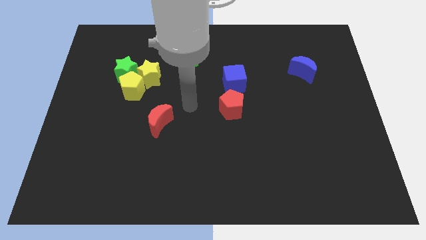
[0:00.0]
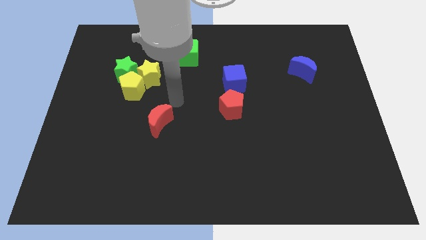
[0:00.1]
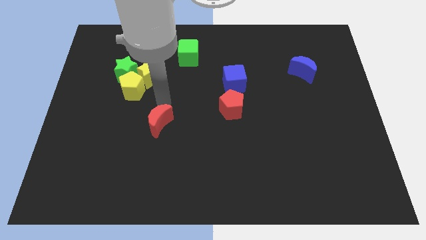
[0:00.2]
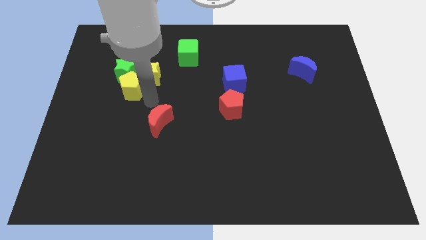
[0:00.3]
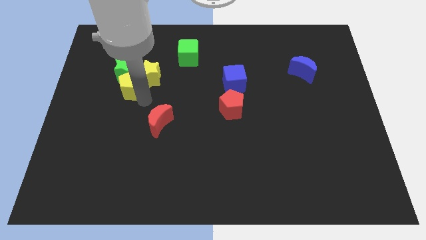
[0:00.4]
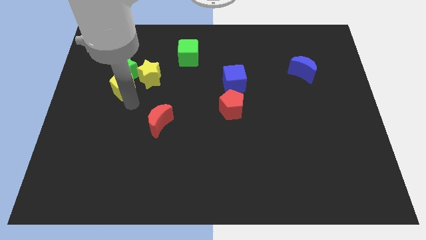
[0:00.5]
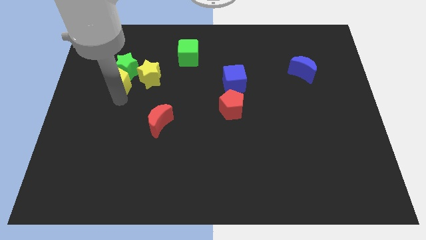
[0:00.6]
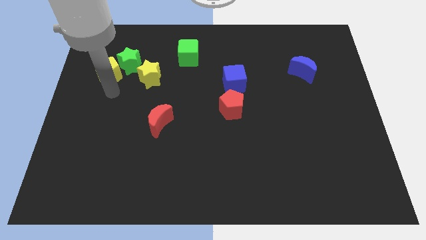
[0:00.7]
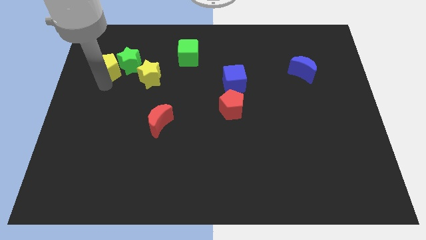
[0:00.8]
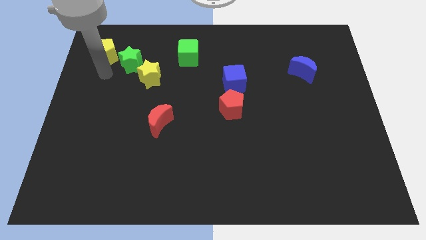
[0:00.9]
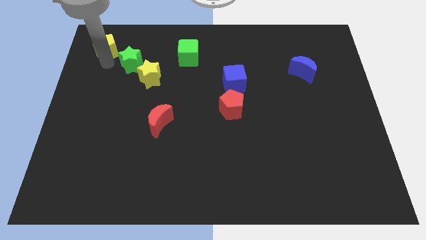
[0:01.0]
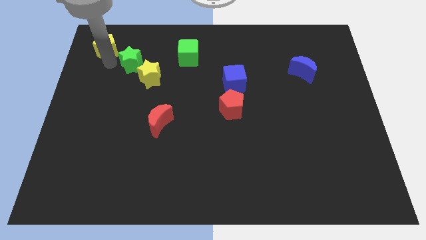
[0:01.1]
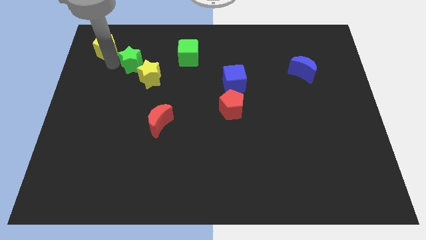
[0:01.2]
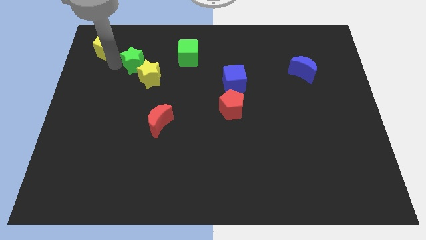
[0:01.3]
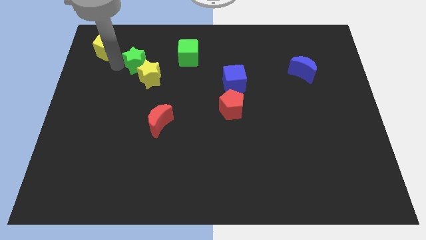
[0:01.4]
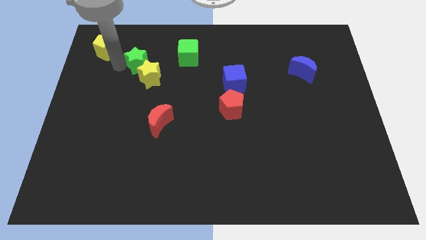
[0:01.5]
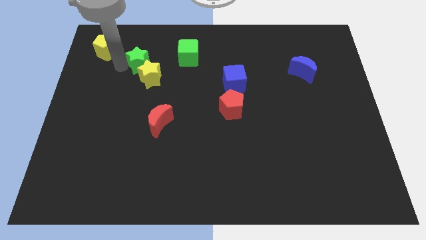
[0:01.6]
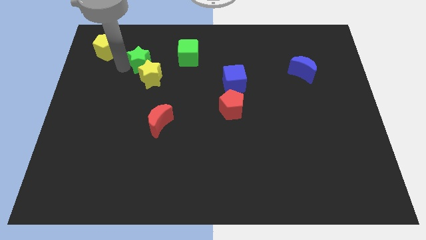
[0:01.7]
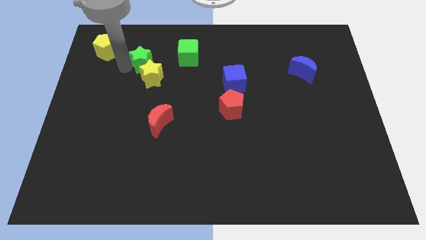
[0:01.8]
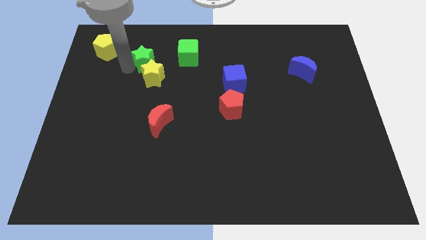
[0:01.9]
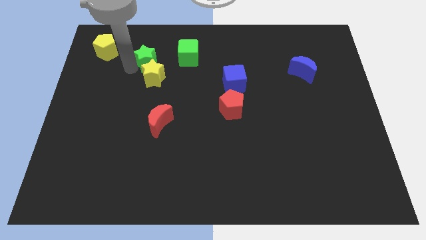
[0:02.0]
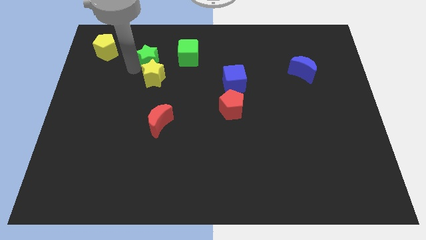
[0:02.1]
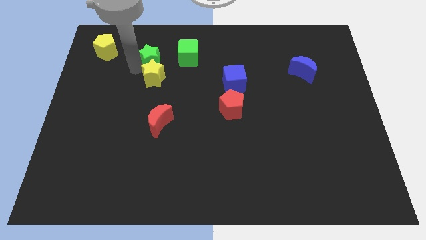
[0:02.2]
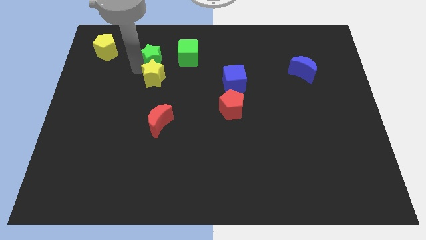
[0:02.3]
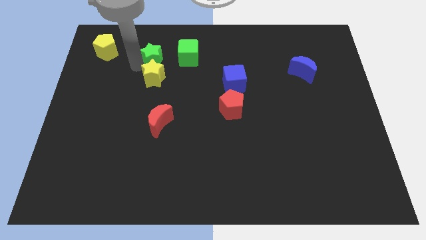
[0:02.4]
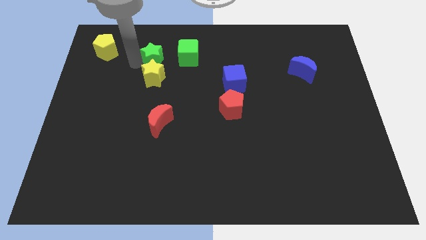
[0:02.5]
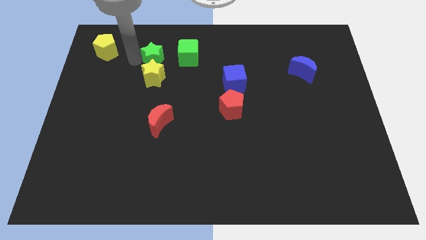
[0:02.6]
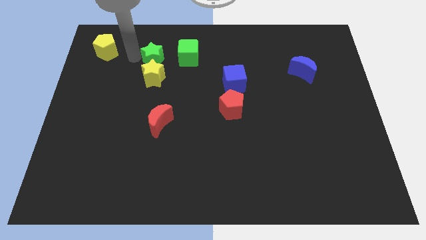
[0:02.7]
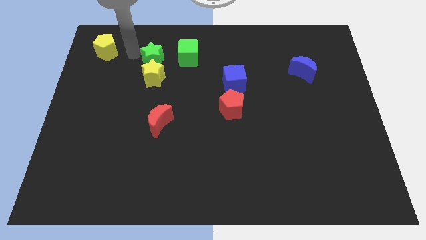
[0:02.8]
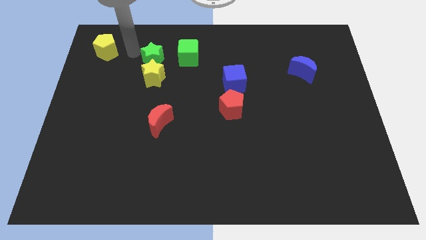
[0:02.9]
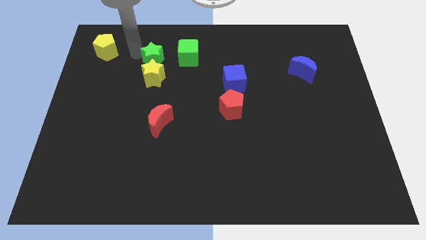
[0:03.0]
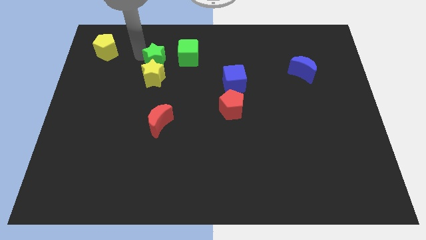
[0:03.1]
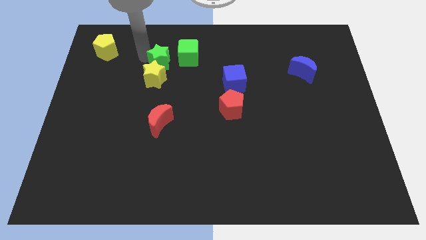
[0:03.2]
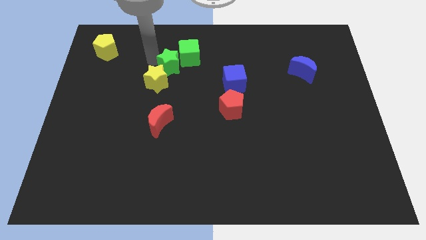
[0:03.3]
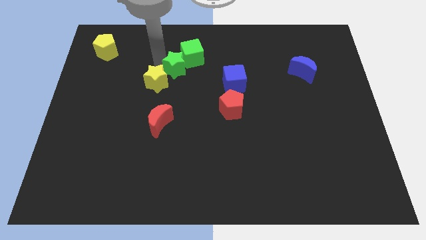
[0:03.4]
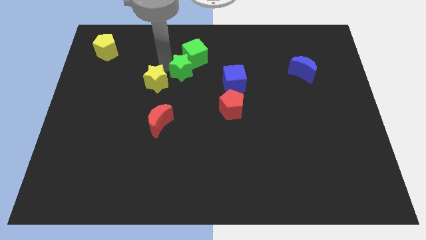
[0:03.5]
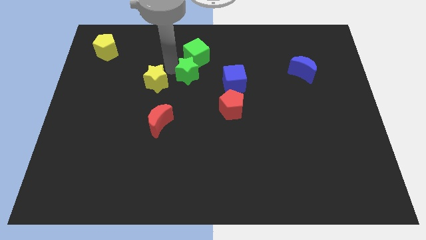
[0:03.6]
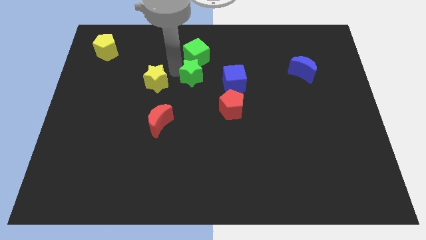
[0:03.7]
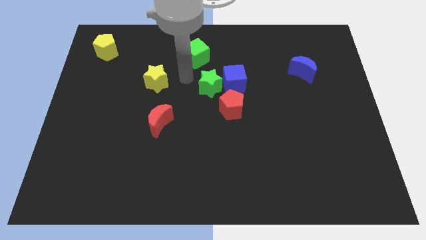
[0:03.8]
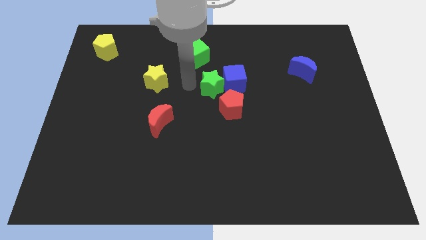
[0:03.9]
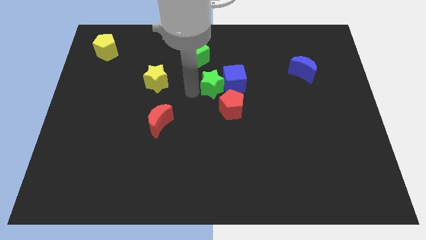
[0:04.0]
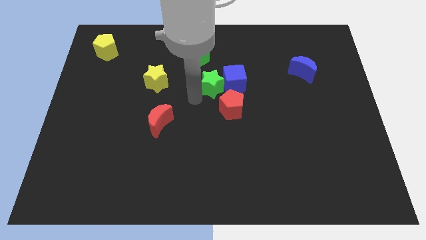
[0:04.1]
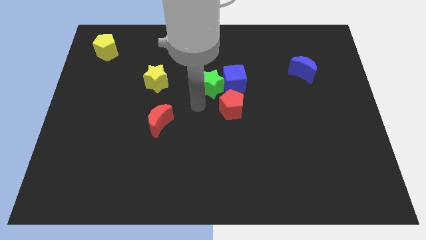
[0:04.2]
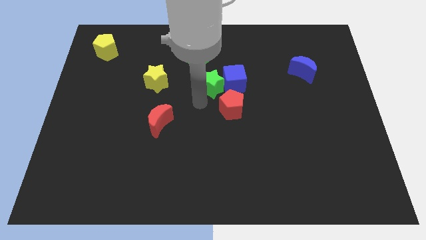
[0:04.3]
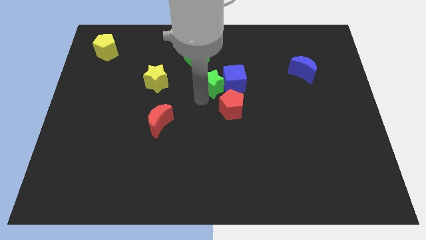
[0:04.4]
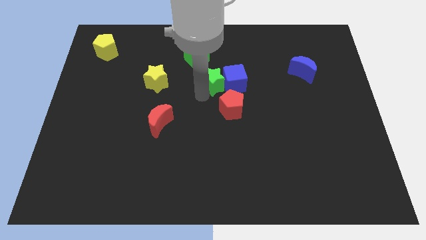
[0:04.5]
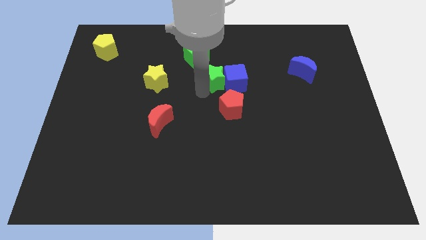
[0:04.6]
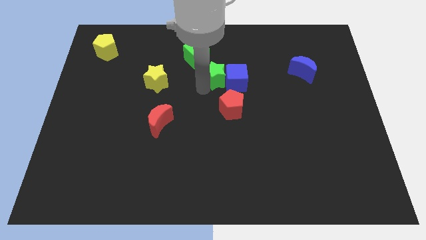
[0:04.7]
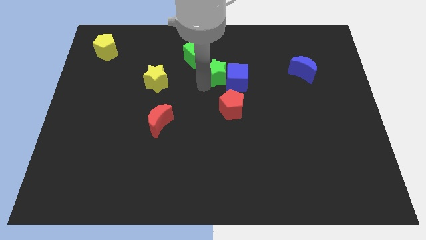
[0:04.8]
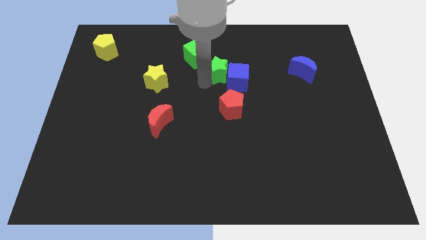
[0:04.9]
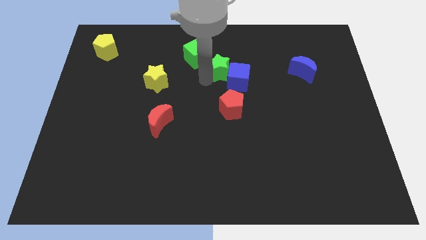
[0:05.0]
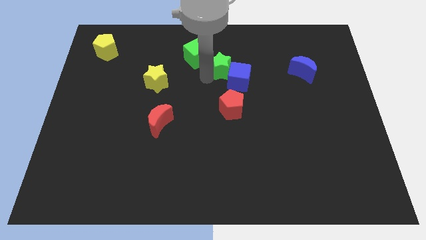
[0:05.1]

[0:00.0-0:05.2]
push the green star just right of the green cube

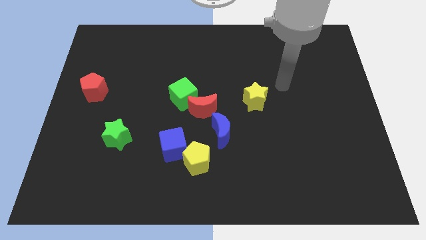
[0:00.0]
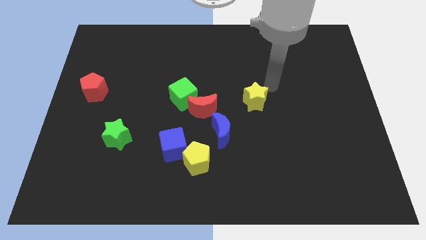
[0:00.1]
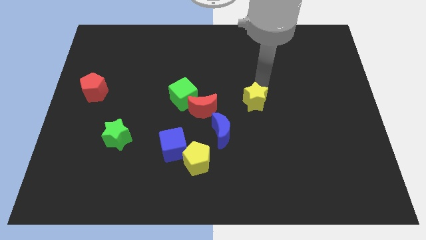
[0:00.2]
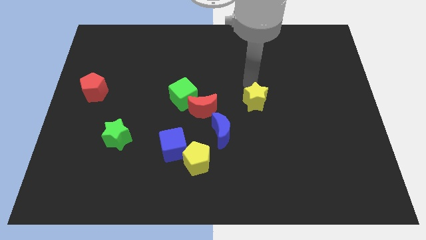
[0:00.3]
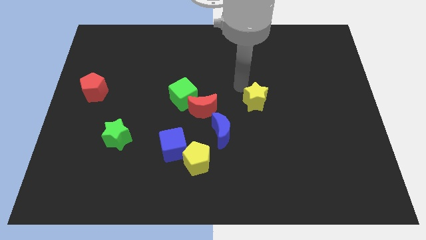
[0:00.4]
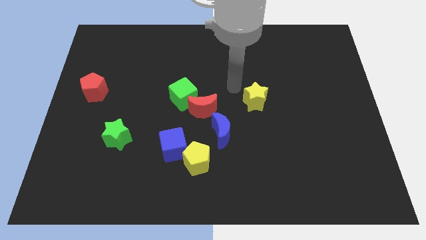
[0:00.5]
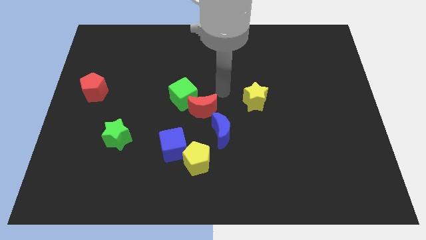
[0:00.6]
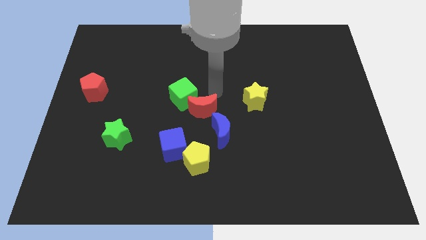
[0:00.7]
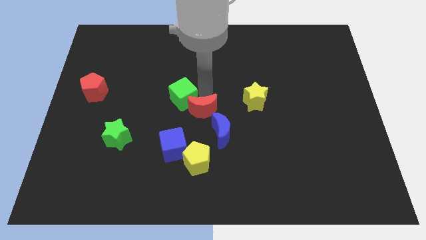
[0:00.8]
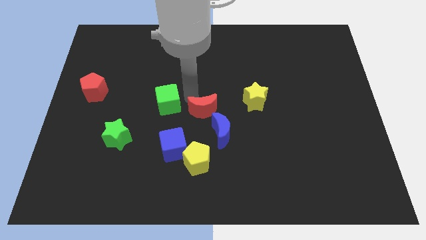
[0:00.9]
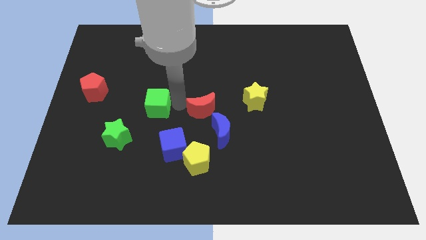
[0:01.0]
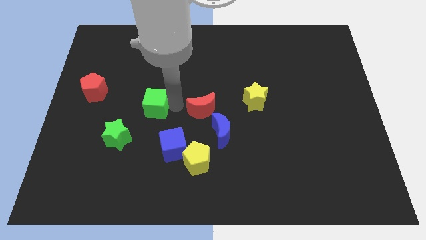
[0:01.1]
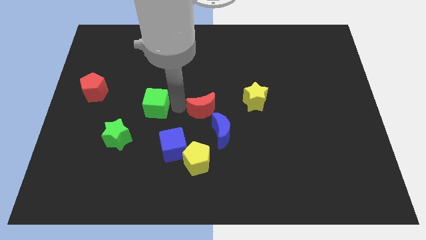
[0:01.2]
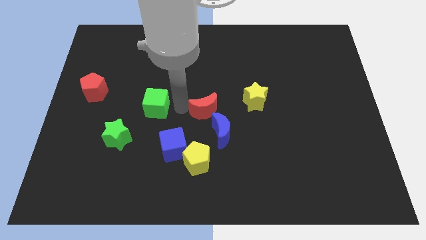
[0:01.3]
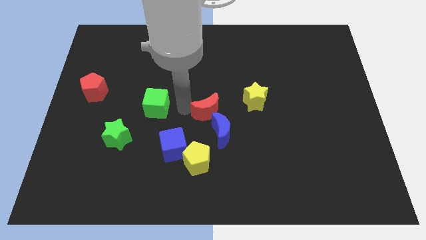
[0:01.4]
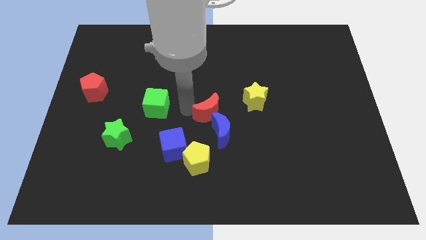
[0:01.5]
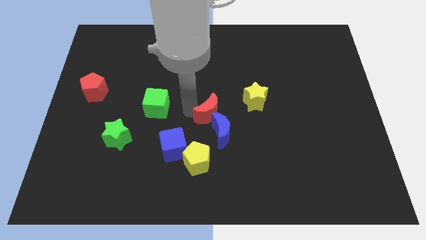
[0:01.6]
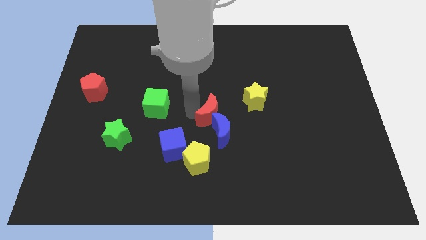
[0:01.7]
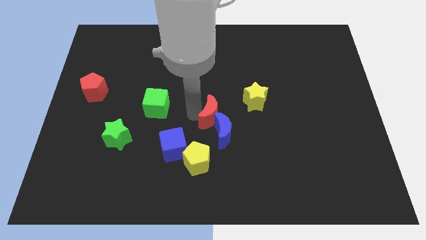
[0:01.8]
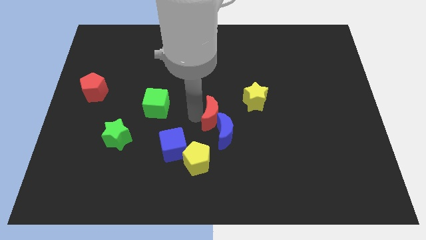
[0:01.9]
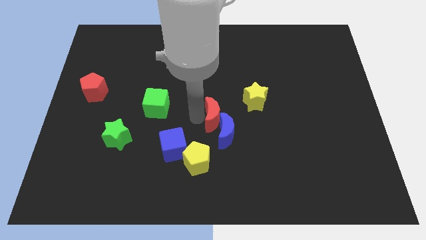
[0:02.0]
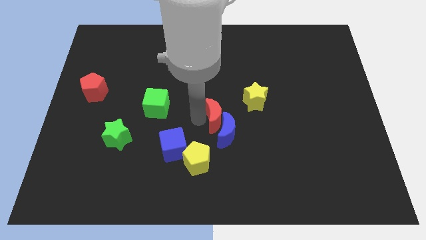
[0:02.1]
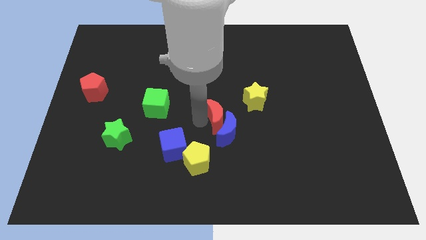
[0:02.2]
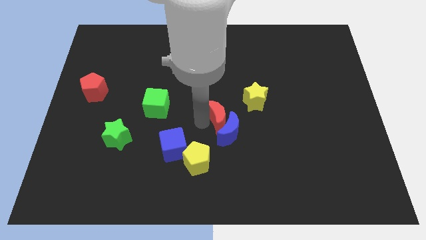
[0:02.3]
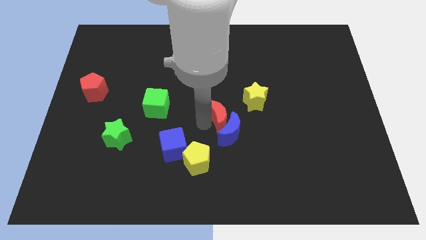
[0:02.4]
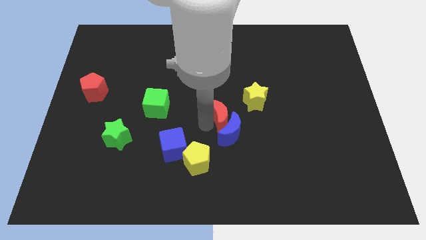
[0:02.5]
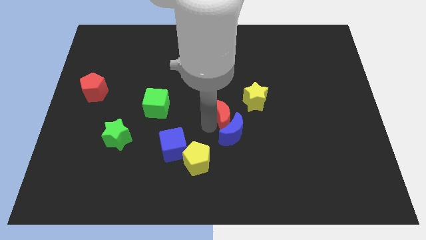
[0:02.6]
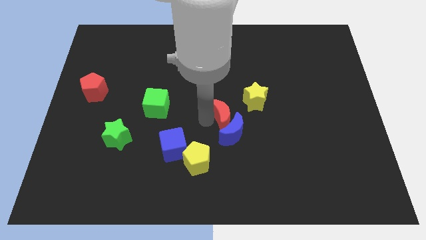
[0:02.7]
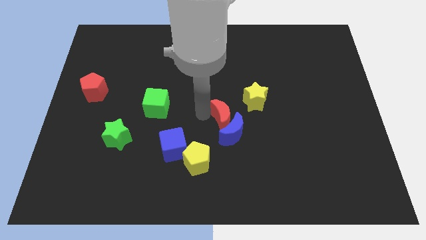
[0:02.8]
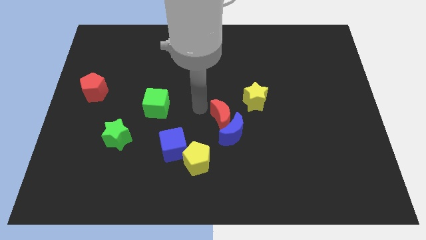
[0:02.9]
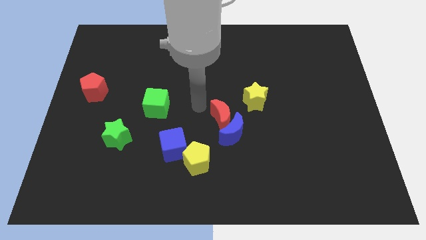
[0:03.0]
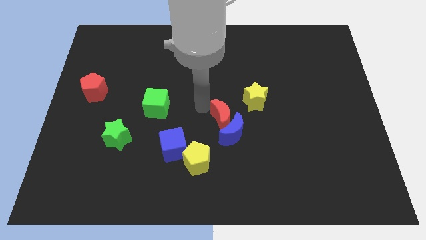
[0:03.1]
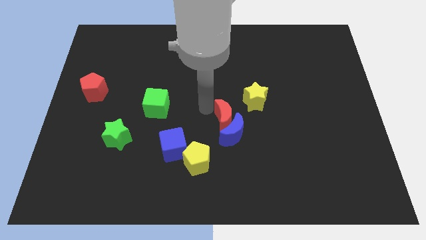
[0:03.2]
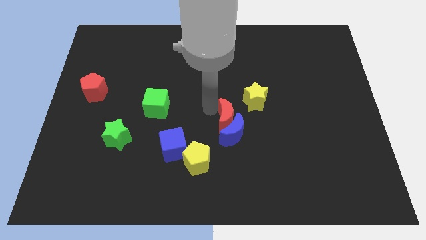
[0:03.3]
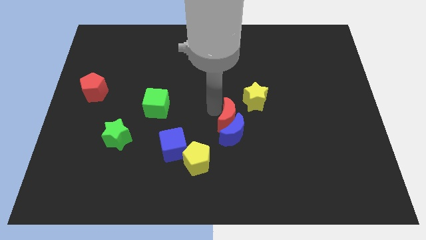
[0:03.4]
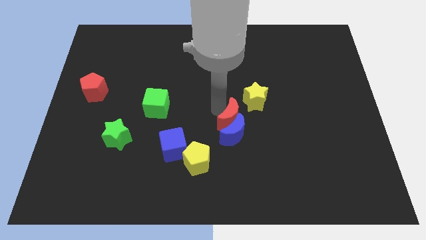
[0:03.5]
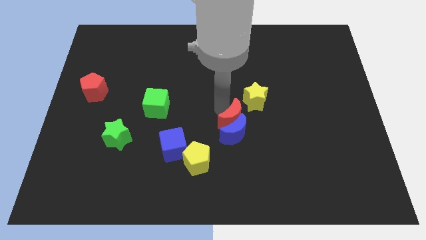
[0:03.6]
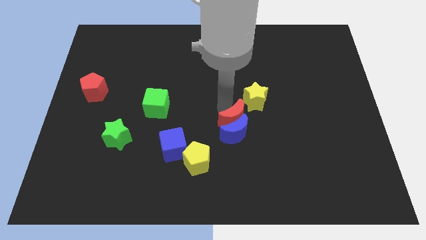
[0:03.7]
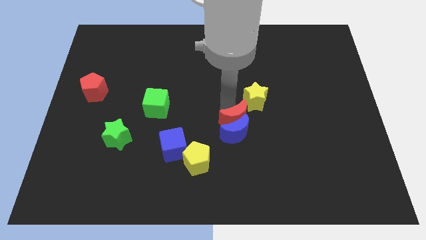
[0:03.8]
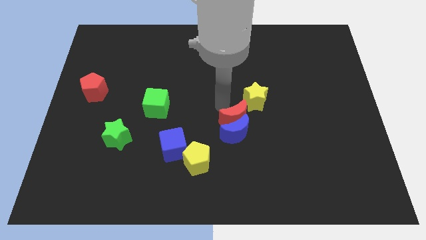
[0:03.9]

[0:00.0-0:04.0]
slide the red moon below the yellow star
